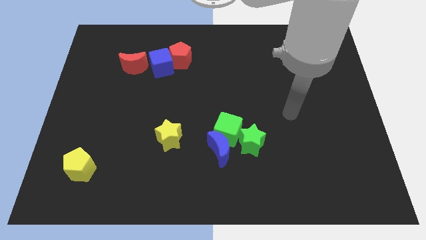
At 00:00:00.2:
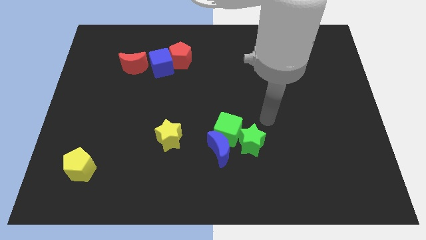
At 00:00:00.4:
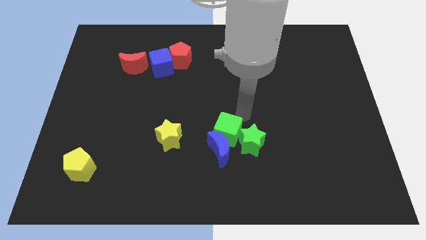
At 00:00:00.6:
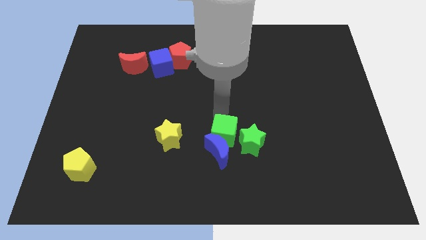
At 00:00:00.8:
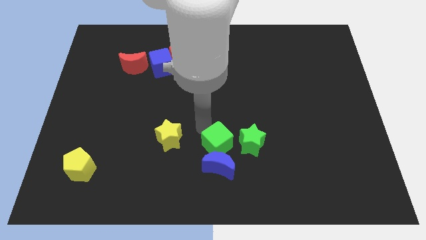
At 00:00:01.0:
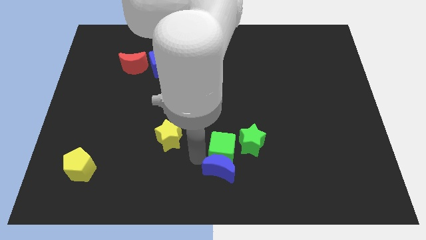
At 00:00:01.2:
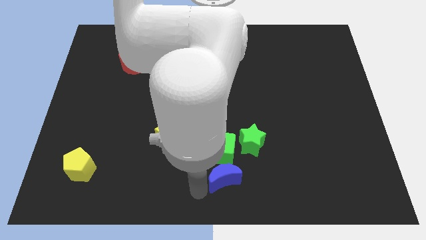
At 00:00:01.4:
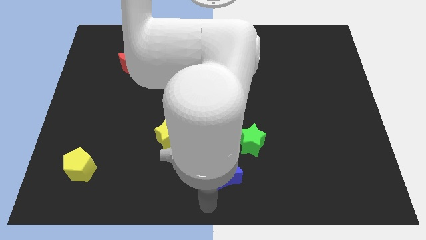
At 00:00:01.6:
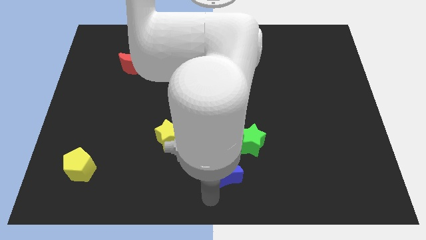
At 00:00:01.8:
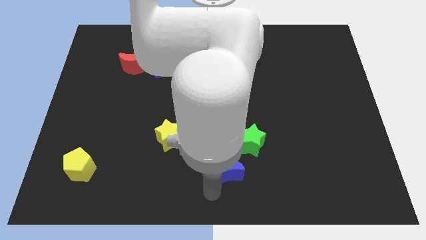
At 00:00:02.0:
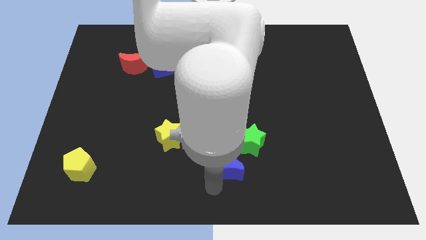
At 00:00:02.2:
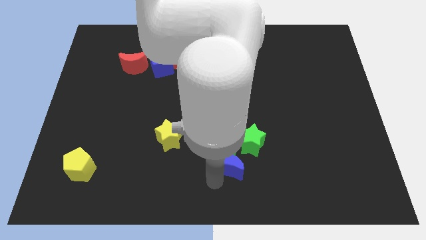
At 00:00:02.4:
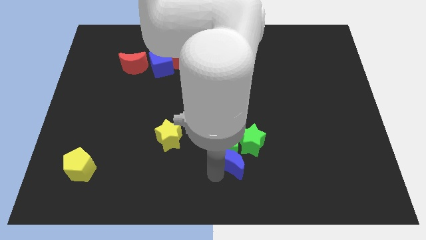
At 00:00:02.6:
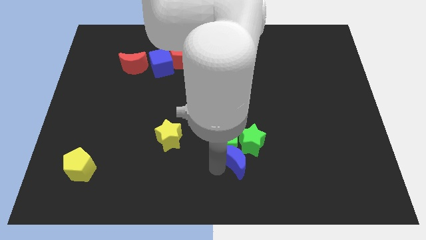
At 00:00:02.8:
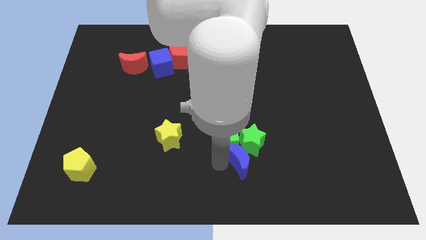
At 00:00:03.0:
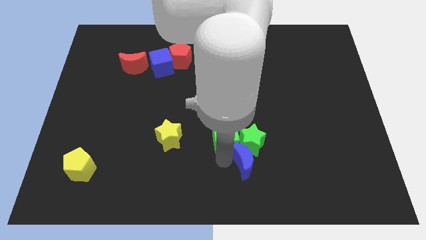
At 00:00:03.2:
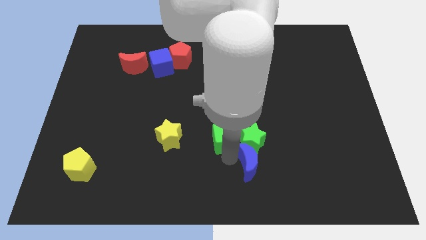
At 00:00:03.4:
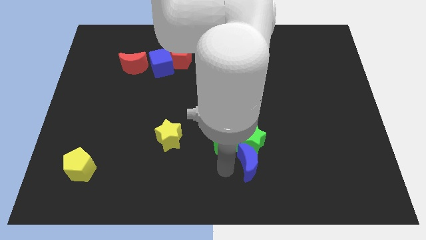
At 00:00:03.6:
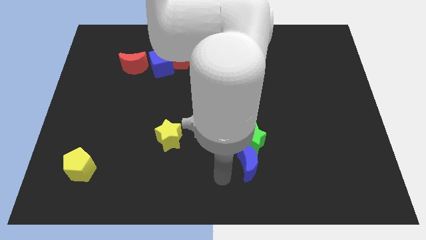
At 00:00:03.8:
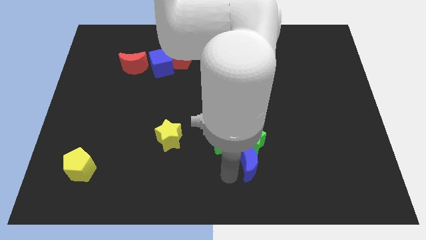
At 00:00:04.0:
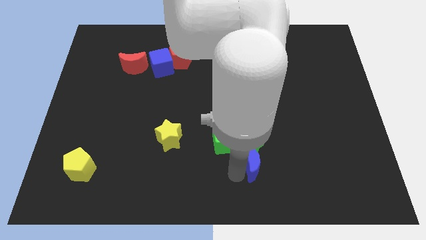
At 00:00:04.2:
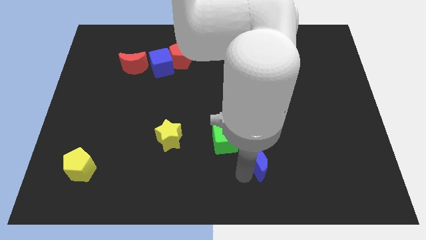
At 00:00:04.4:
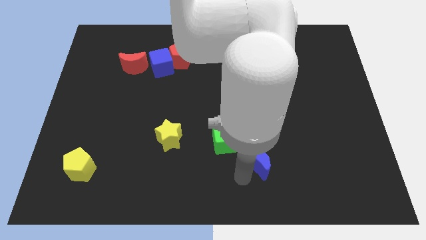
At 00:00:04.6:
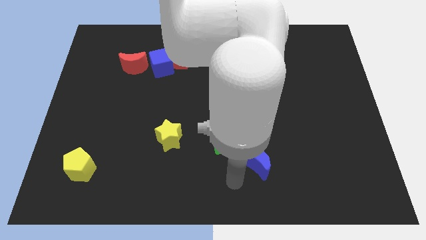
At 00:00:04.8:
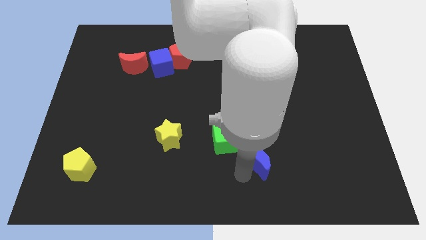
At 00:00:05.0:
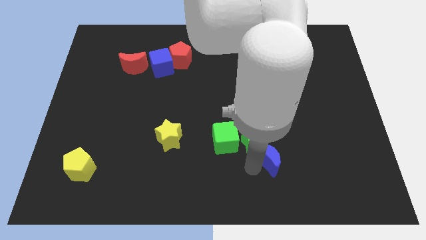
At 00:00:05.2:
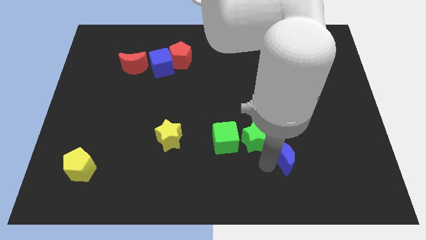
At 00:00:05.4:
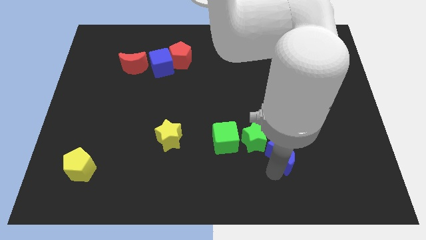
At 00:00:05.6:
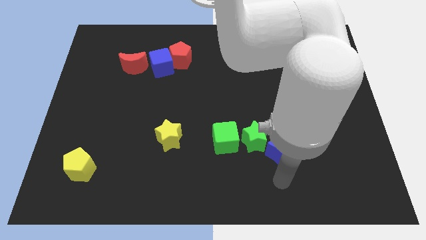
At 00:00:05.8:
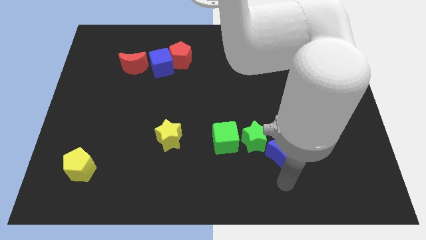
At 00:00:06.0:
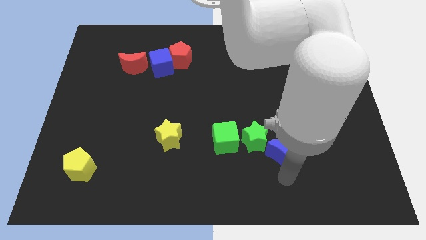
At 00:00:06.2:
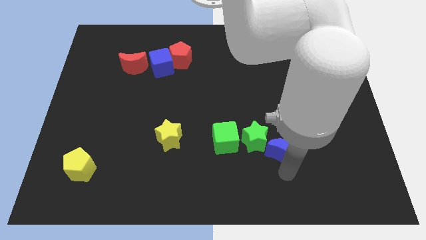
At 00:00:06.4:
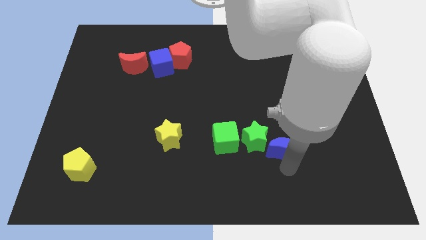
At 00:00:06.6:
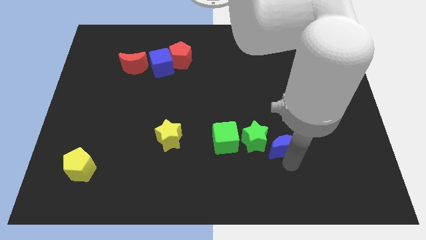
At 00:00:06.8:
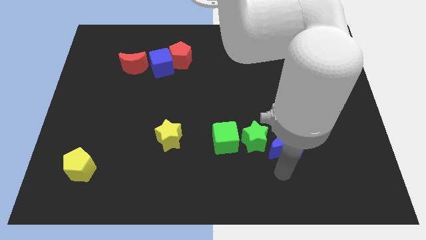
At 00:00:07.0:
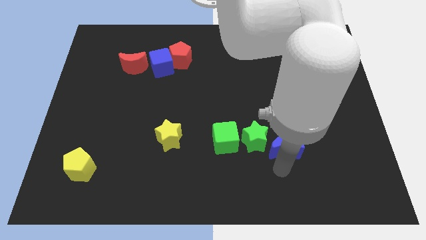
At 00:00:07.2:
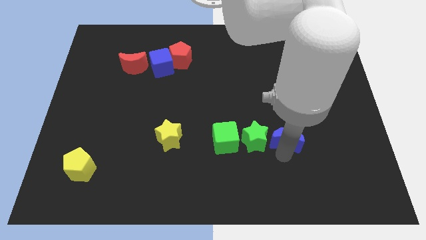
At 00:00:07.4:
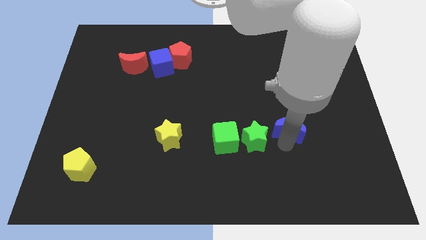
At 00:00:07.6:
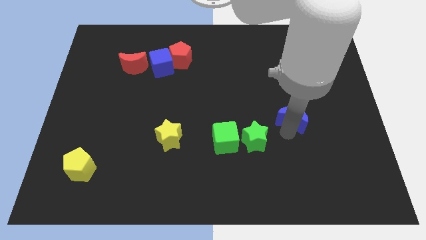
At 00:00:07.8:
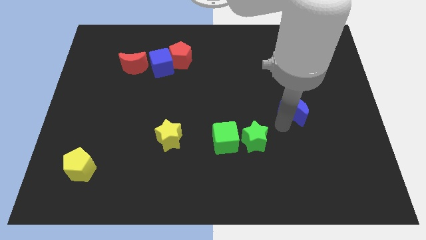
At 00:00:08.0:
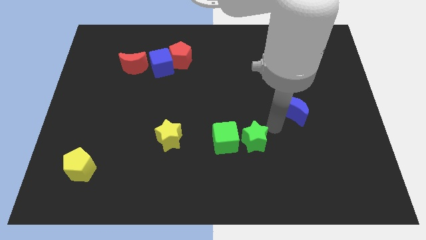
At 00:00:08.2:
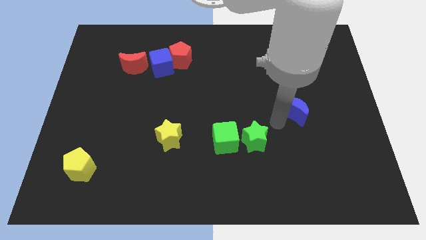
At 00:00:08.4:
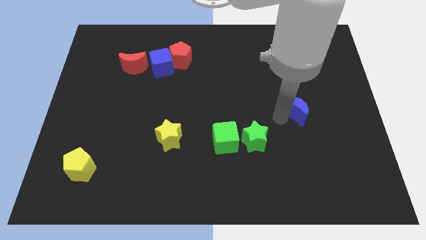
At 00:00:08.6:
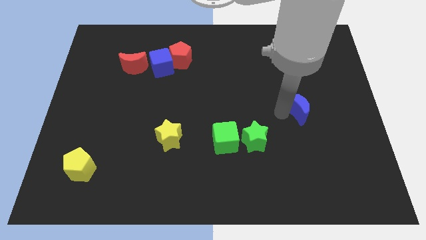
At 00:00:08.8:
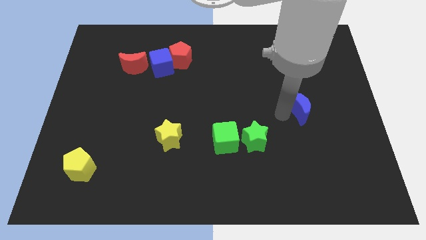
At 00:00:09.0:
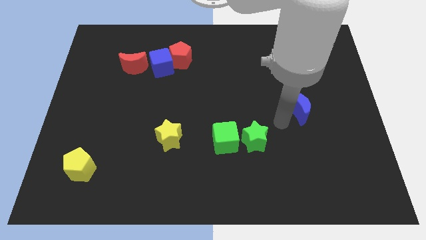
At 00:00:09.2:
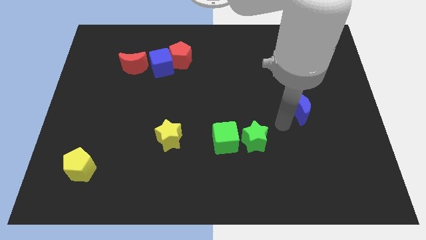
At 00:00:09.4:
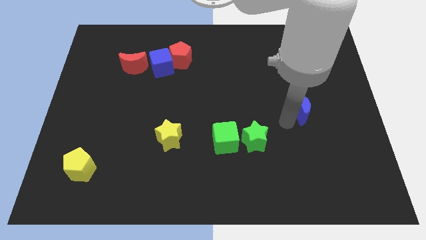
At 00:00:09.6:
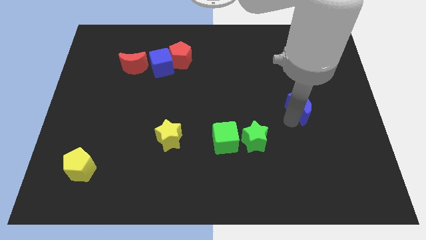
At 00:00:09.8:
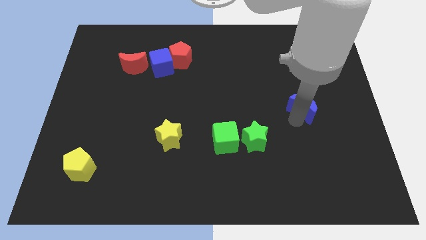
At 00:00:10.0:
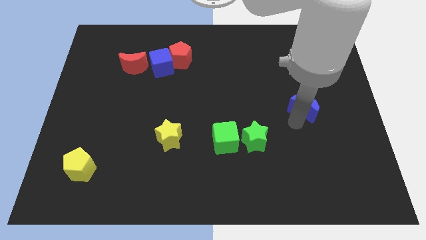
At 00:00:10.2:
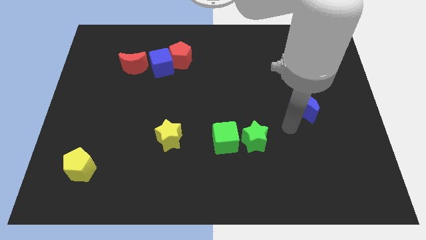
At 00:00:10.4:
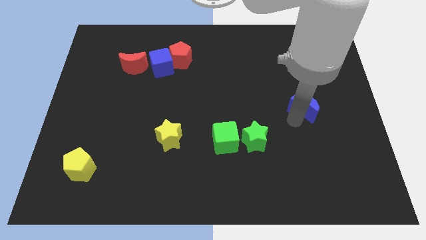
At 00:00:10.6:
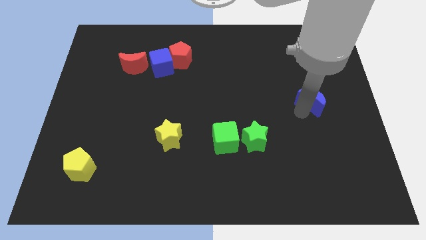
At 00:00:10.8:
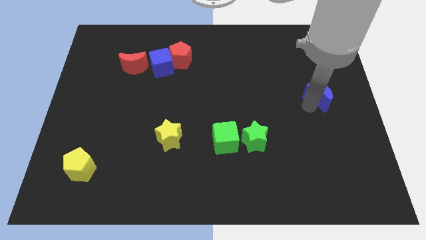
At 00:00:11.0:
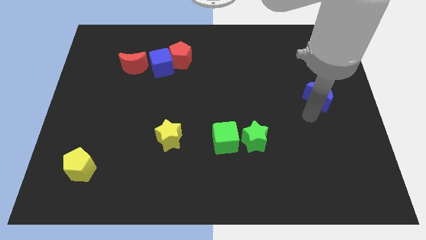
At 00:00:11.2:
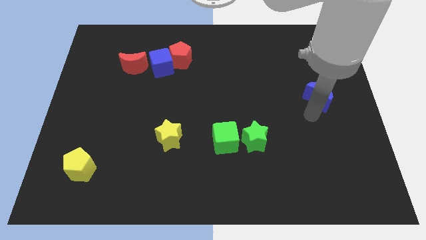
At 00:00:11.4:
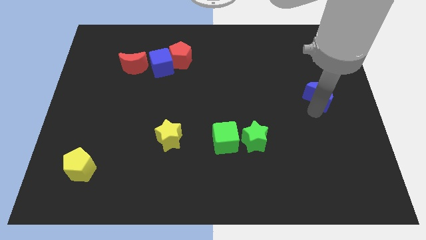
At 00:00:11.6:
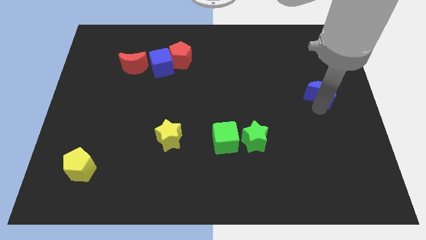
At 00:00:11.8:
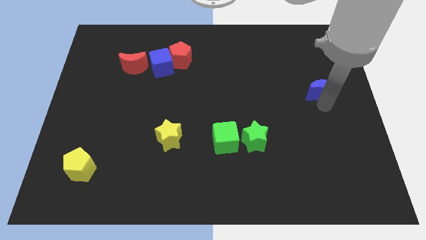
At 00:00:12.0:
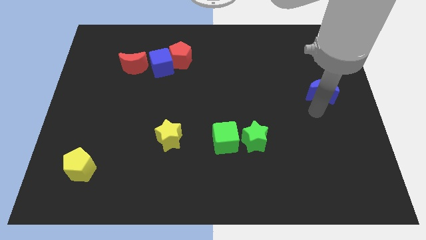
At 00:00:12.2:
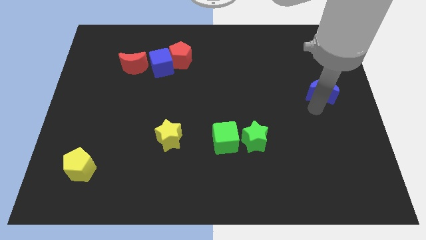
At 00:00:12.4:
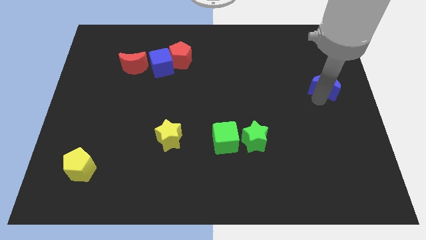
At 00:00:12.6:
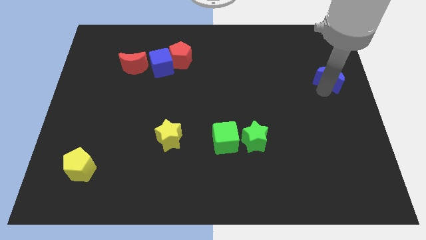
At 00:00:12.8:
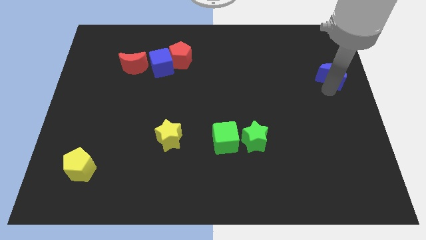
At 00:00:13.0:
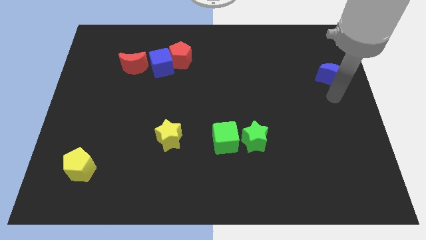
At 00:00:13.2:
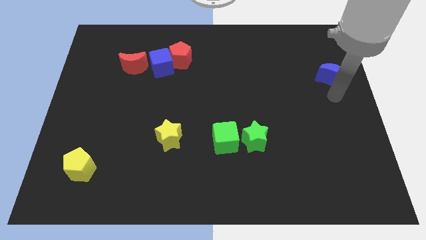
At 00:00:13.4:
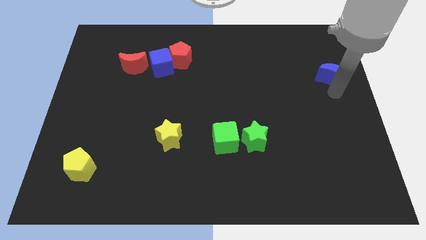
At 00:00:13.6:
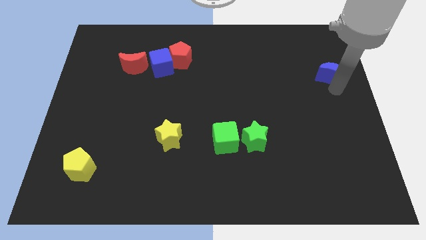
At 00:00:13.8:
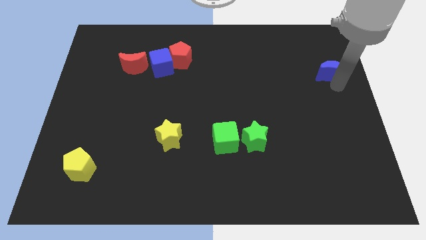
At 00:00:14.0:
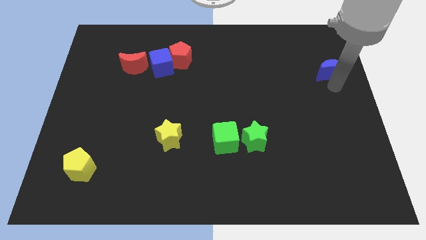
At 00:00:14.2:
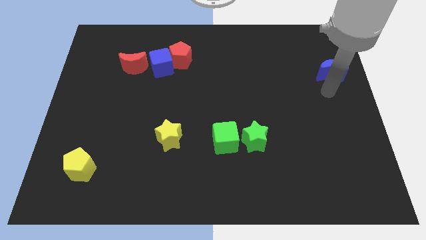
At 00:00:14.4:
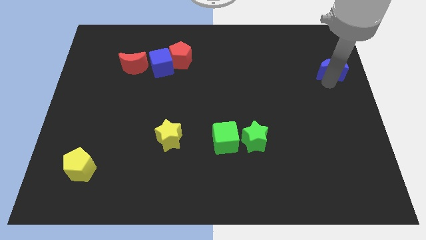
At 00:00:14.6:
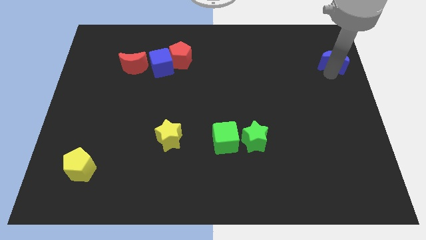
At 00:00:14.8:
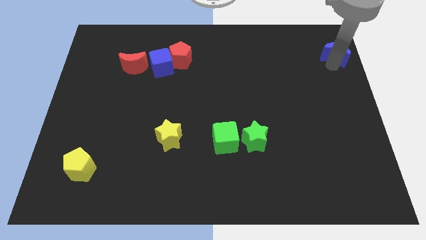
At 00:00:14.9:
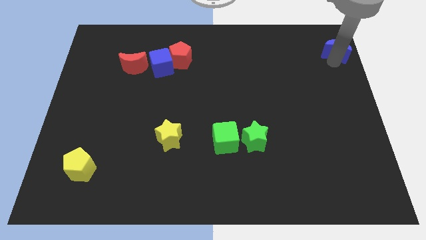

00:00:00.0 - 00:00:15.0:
push the blue moon to the top right corner

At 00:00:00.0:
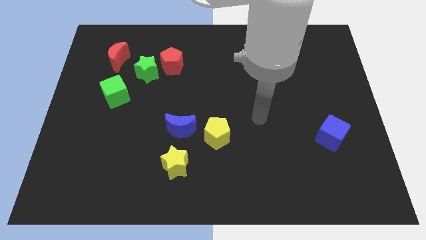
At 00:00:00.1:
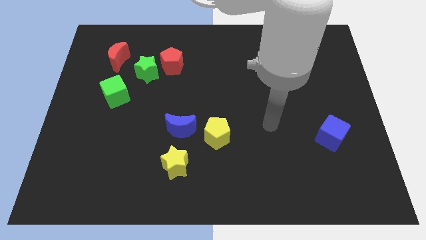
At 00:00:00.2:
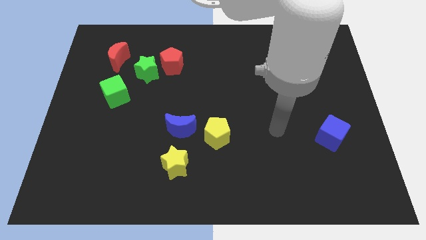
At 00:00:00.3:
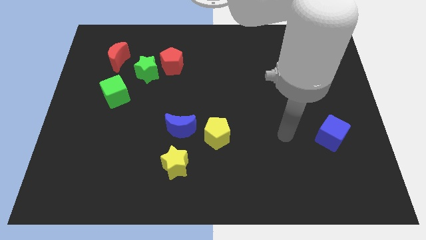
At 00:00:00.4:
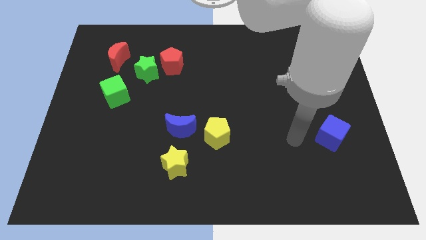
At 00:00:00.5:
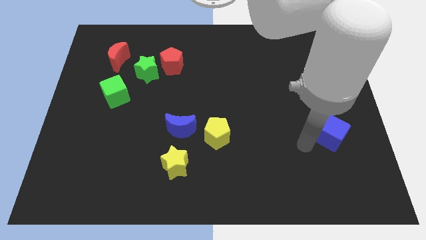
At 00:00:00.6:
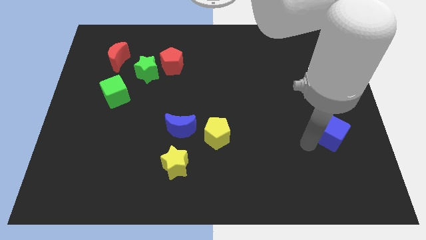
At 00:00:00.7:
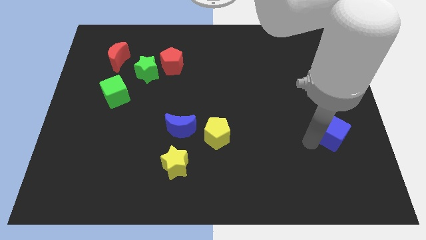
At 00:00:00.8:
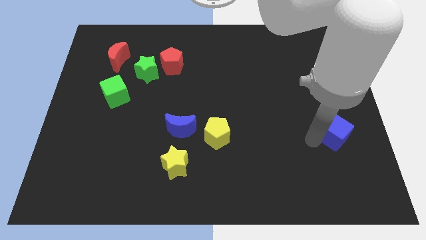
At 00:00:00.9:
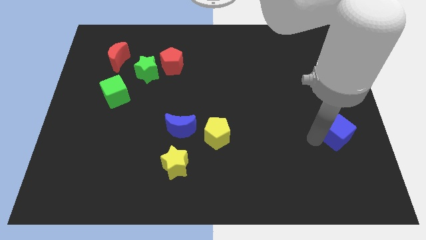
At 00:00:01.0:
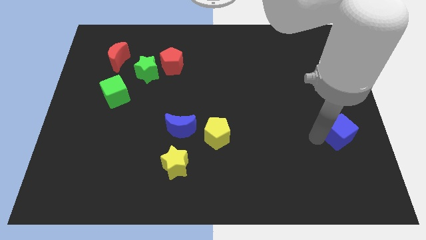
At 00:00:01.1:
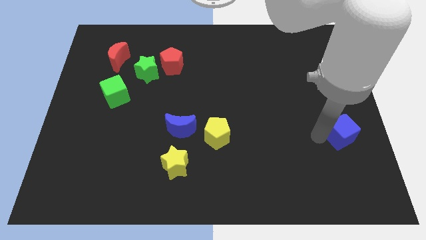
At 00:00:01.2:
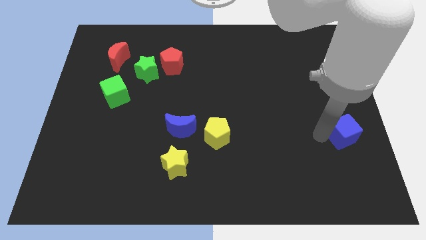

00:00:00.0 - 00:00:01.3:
slide the blue cube to the right side
